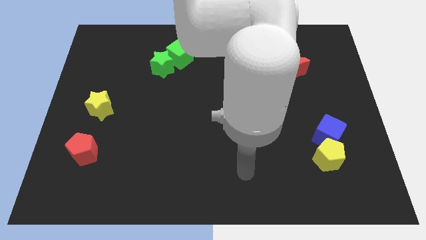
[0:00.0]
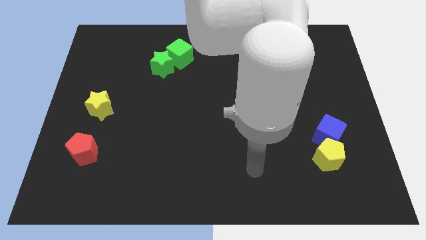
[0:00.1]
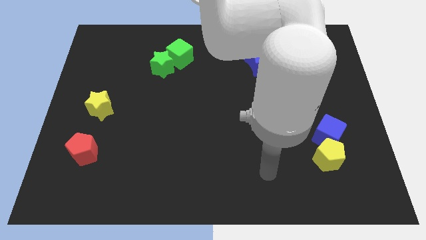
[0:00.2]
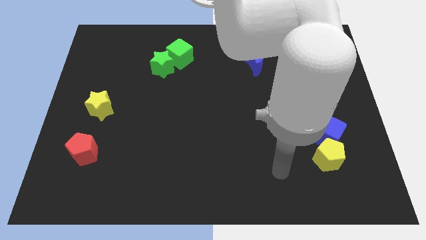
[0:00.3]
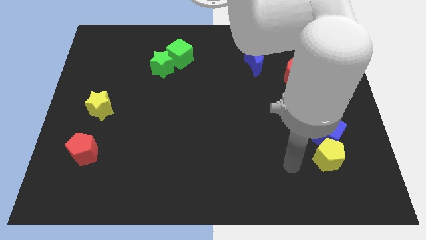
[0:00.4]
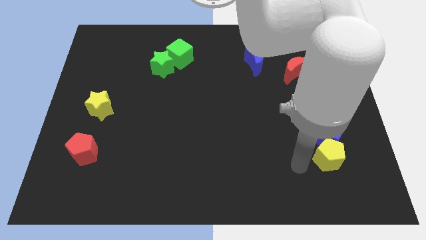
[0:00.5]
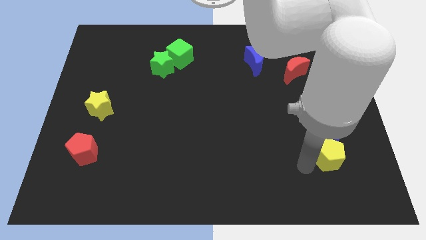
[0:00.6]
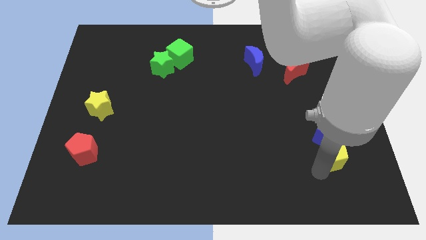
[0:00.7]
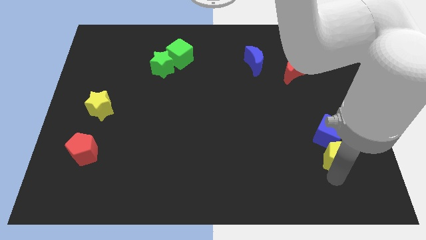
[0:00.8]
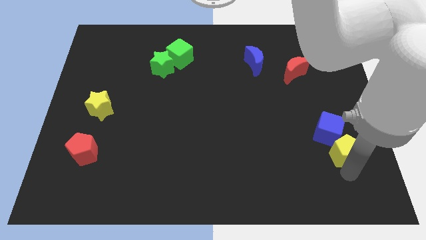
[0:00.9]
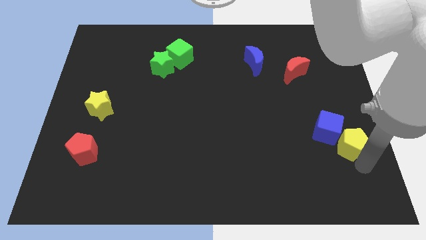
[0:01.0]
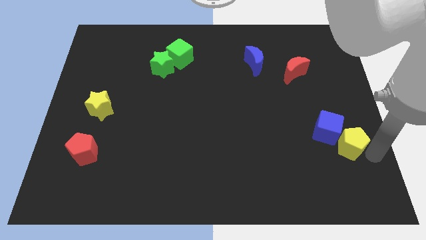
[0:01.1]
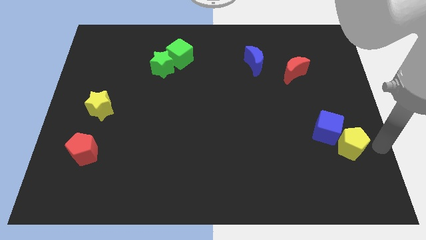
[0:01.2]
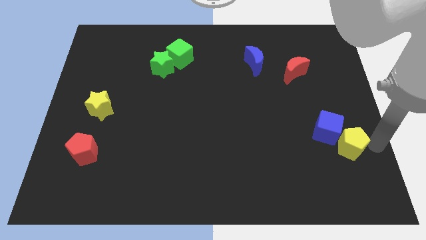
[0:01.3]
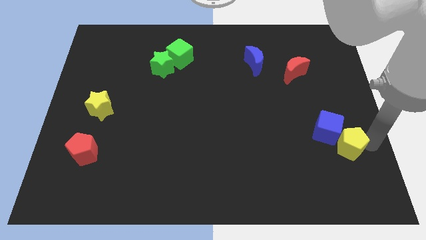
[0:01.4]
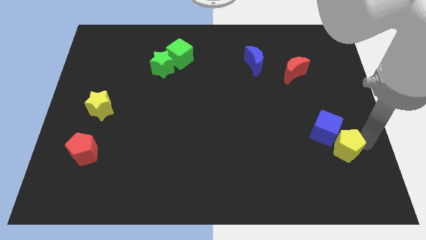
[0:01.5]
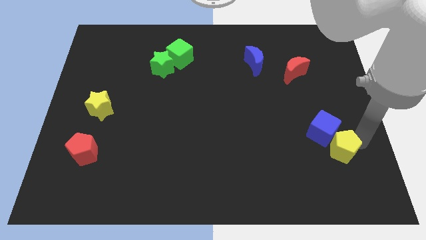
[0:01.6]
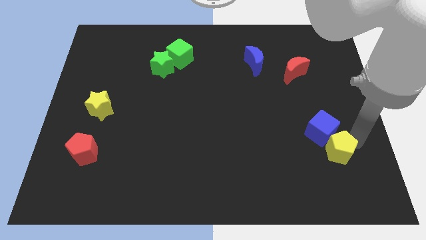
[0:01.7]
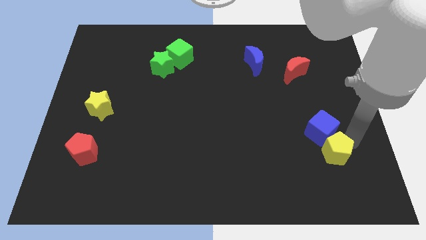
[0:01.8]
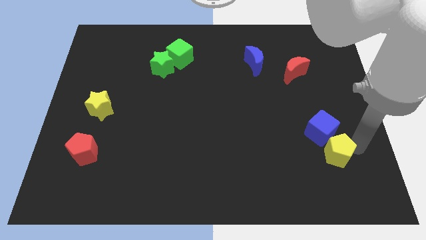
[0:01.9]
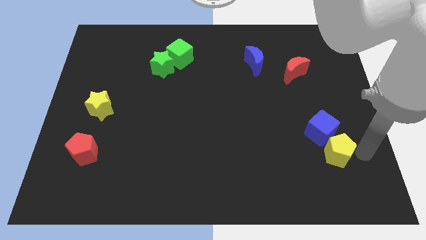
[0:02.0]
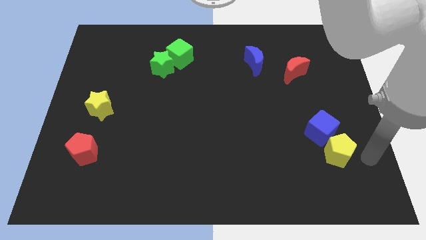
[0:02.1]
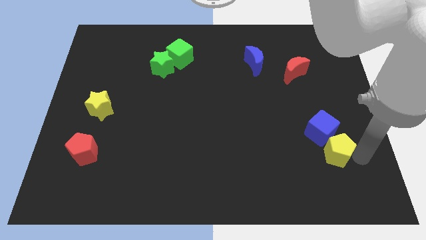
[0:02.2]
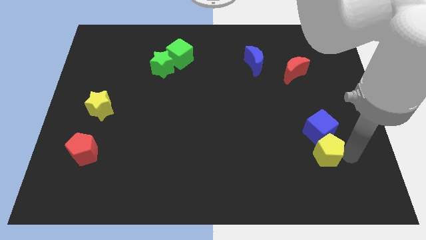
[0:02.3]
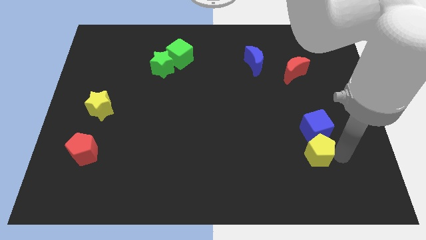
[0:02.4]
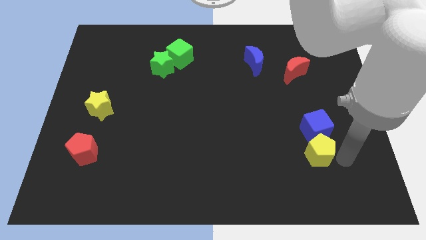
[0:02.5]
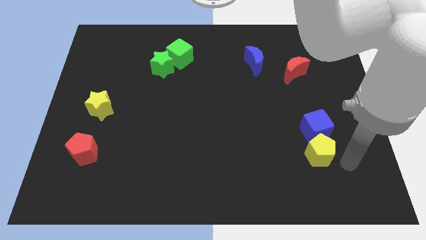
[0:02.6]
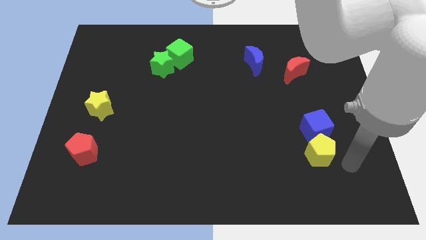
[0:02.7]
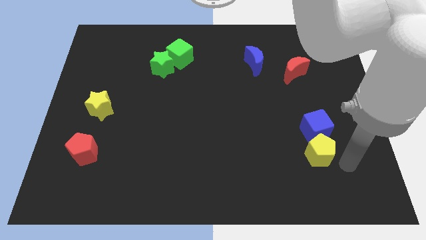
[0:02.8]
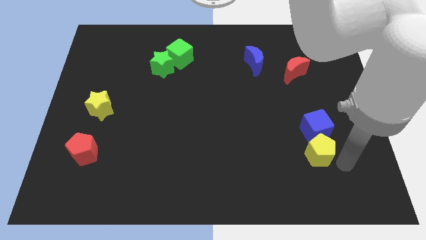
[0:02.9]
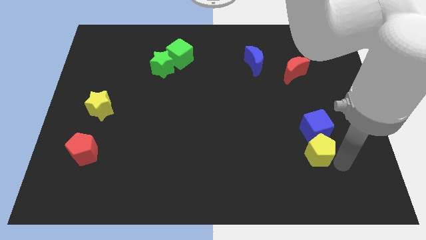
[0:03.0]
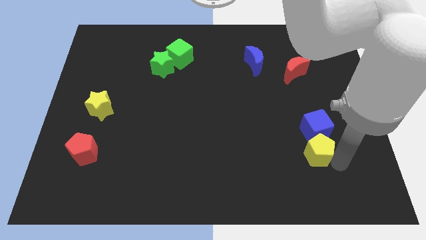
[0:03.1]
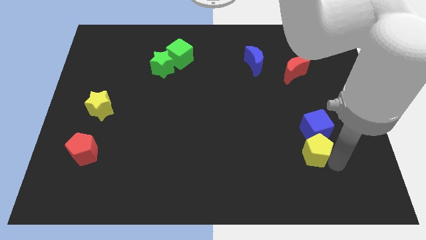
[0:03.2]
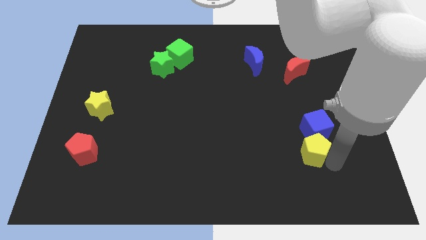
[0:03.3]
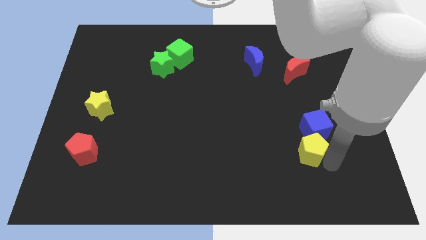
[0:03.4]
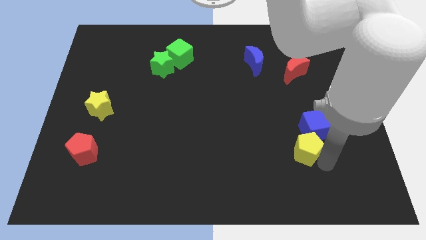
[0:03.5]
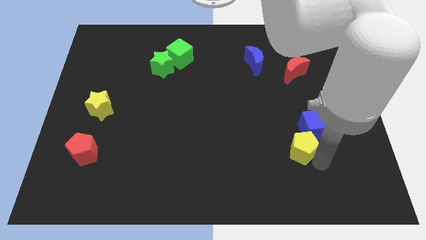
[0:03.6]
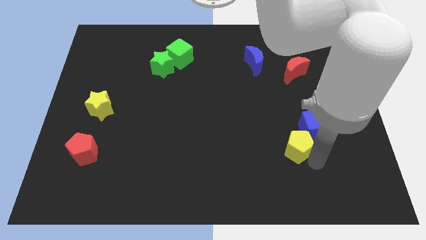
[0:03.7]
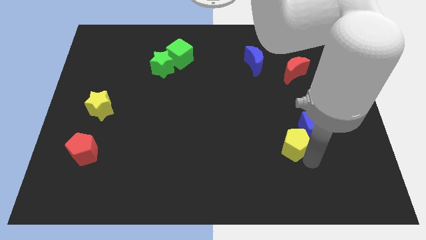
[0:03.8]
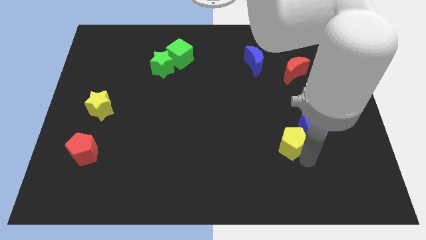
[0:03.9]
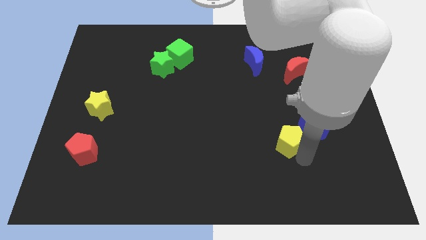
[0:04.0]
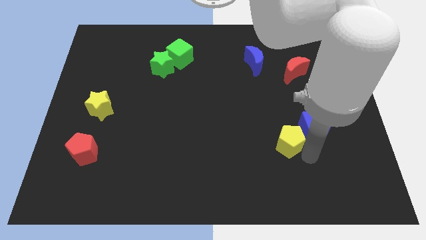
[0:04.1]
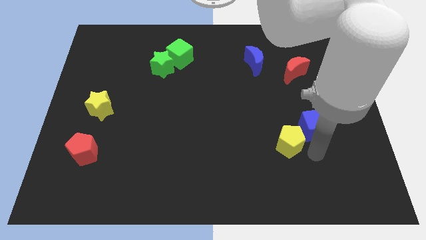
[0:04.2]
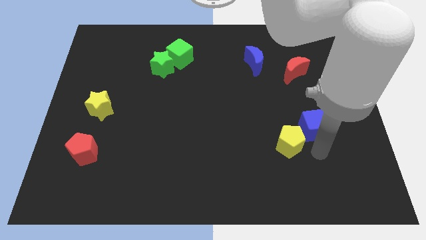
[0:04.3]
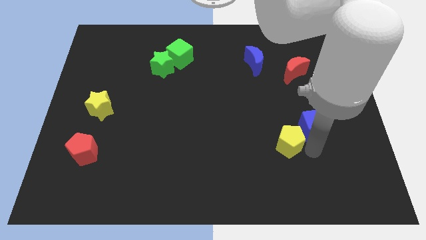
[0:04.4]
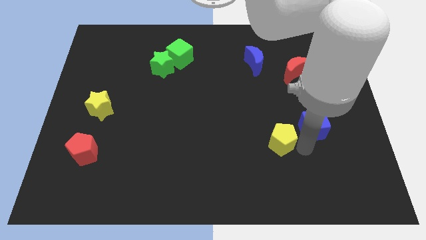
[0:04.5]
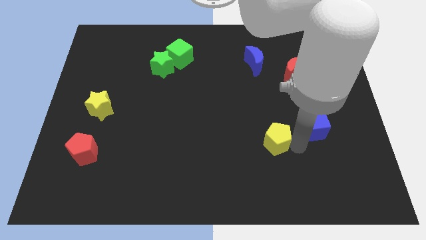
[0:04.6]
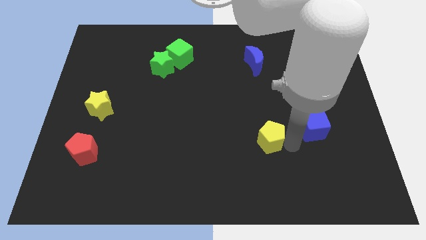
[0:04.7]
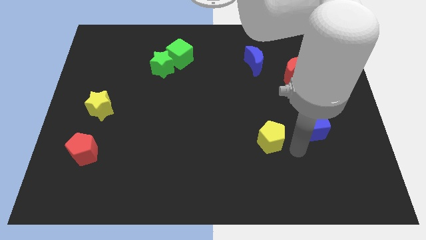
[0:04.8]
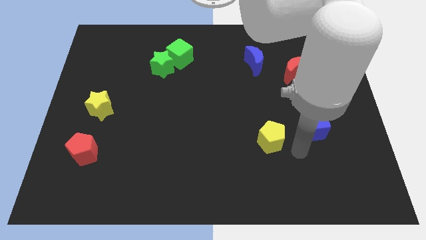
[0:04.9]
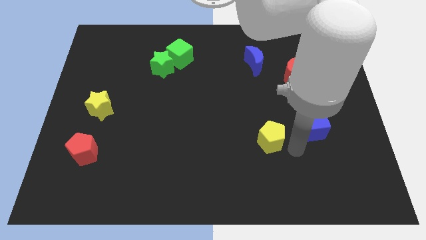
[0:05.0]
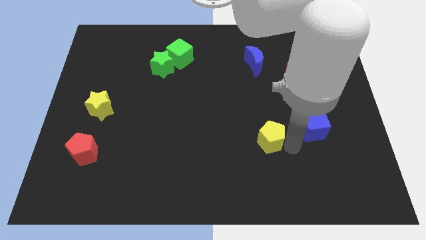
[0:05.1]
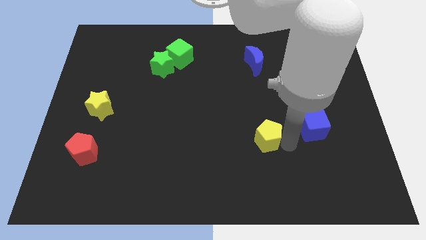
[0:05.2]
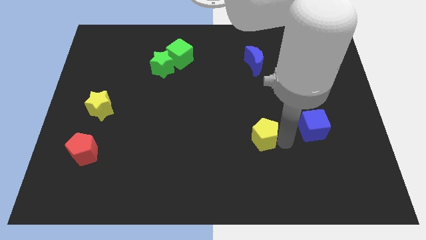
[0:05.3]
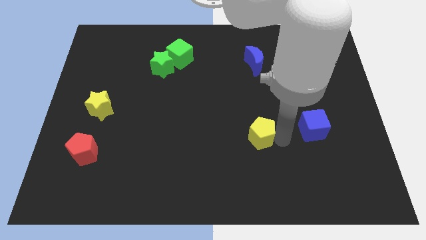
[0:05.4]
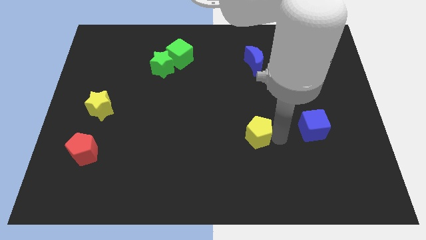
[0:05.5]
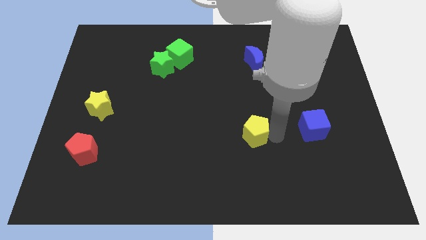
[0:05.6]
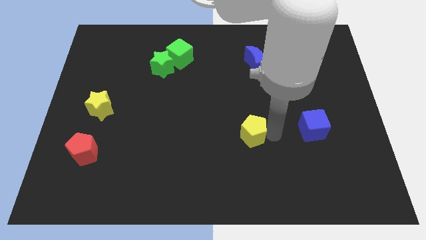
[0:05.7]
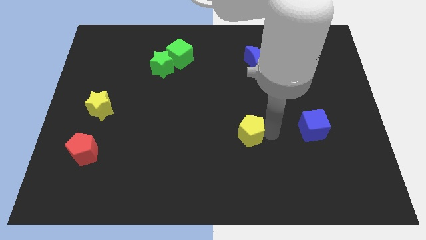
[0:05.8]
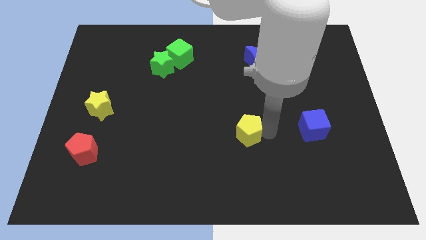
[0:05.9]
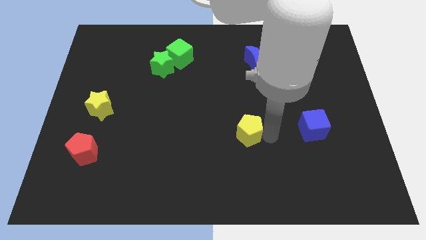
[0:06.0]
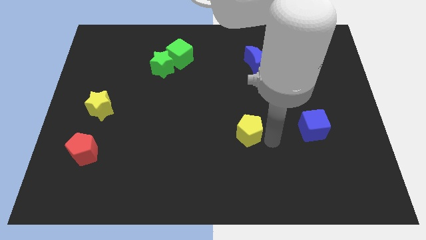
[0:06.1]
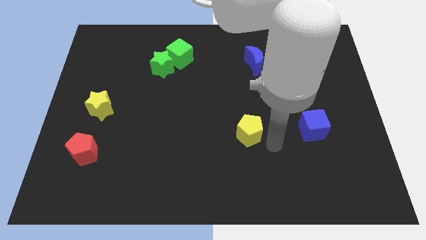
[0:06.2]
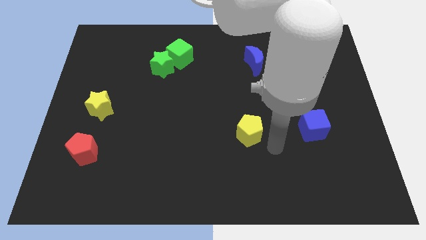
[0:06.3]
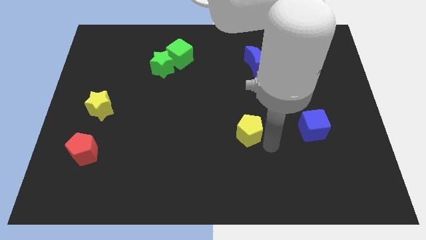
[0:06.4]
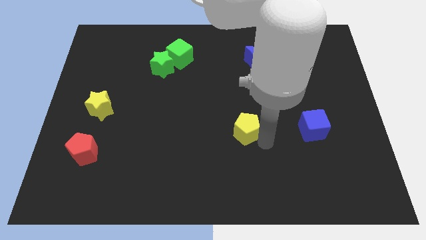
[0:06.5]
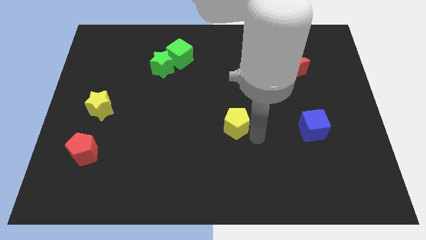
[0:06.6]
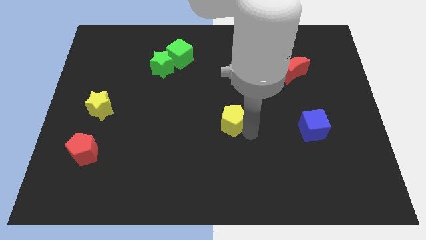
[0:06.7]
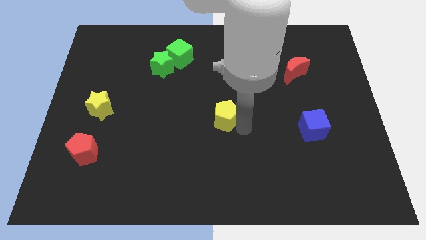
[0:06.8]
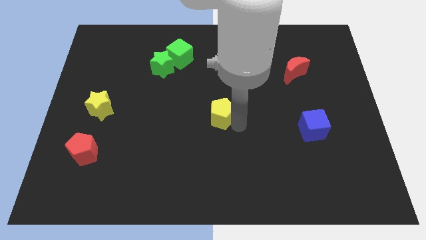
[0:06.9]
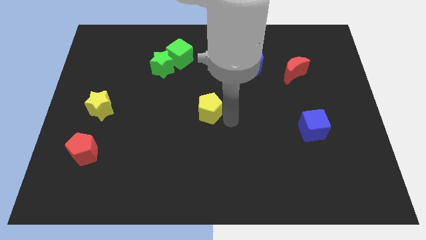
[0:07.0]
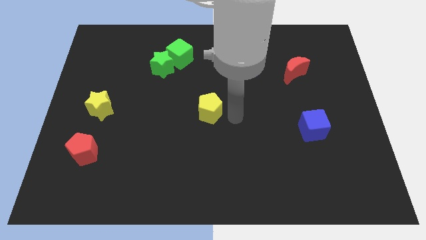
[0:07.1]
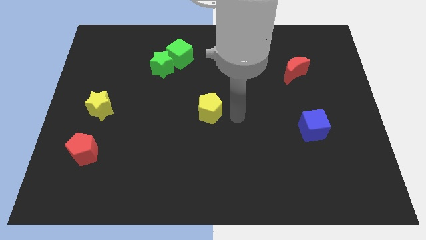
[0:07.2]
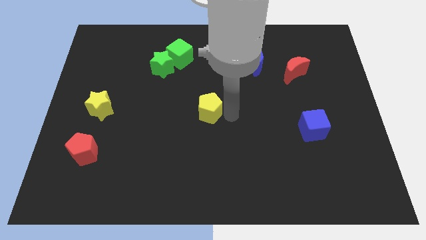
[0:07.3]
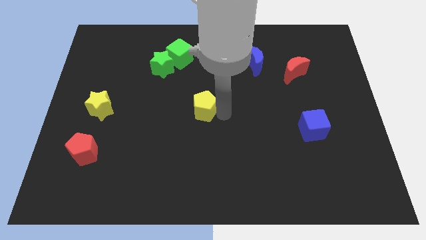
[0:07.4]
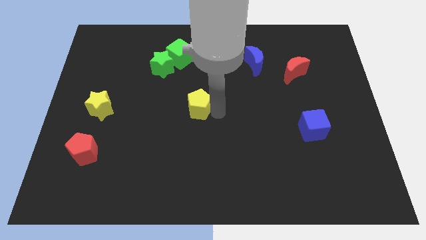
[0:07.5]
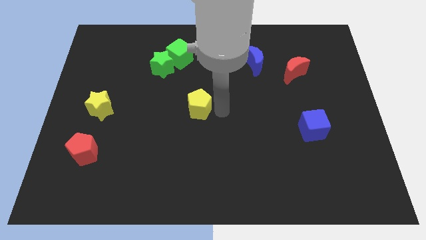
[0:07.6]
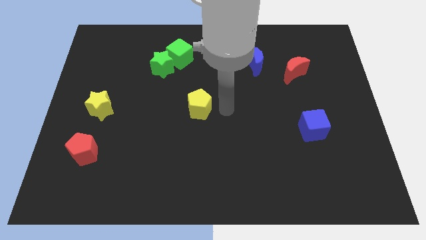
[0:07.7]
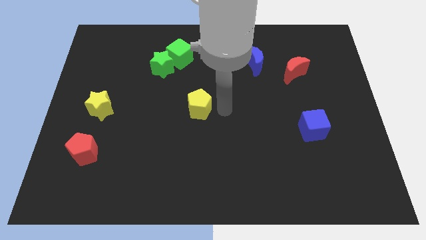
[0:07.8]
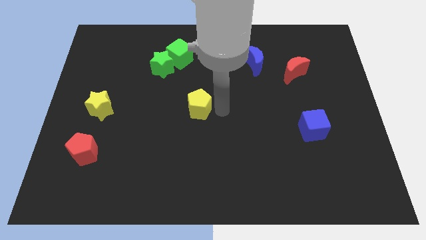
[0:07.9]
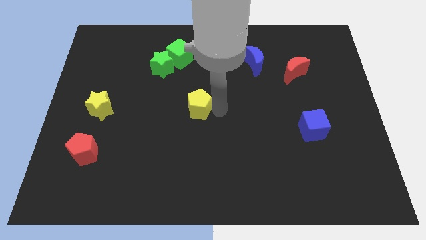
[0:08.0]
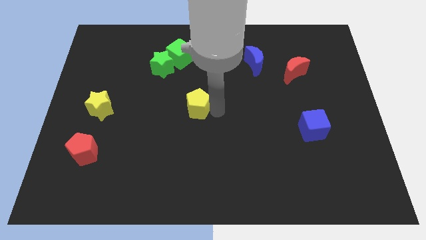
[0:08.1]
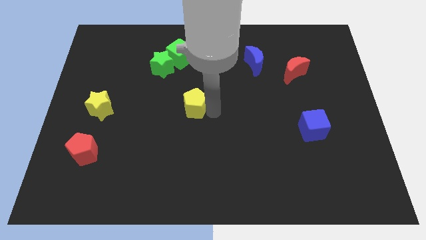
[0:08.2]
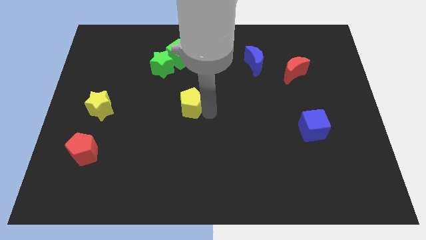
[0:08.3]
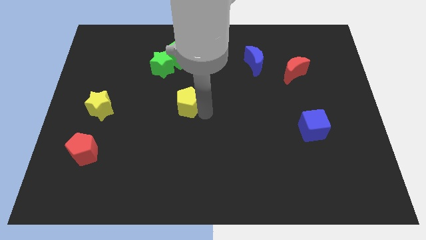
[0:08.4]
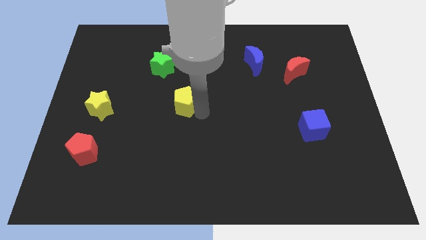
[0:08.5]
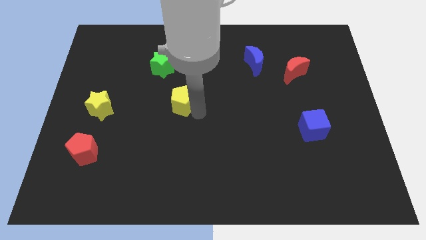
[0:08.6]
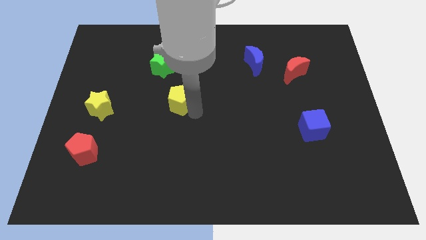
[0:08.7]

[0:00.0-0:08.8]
push the yellow pentagon to the bottom of the green star
